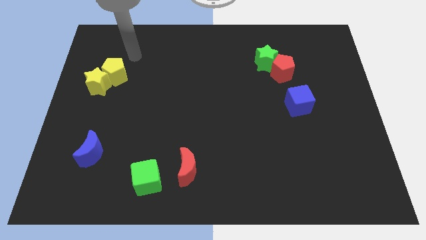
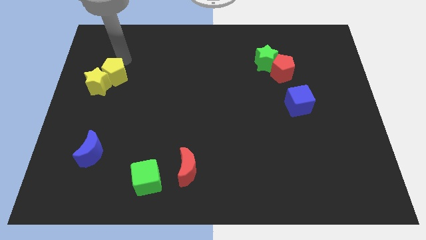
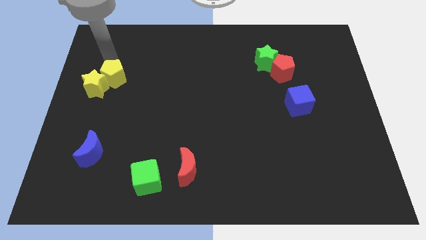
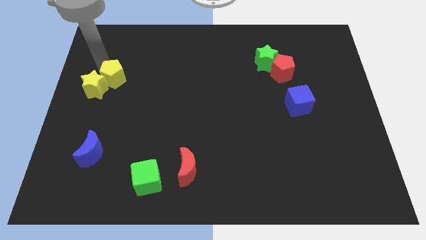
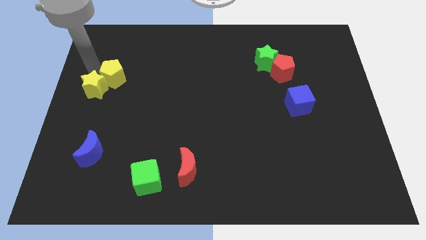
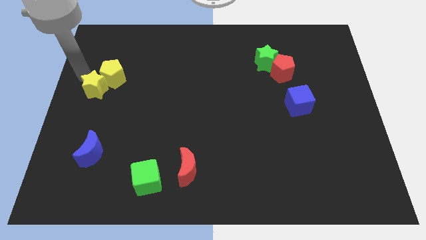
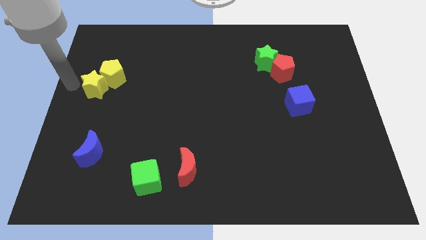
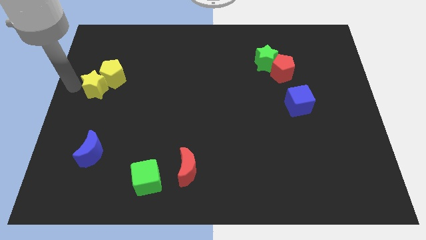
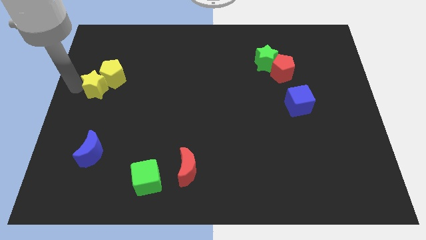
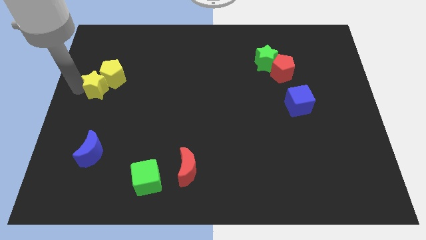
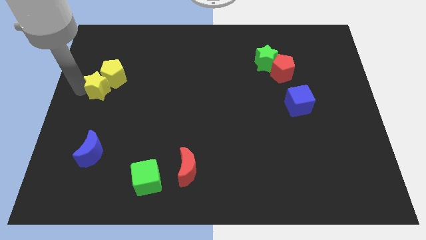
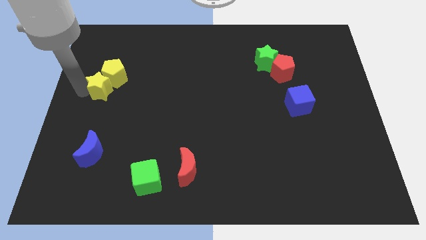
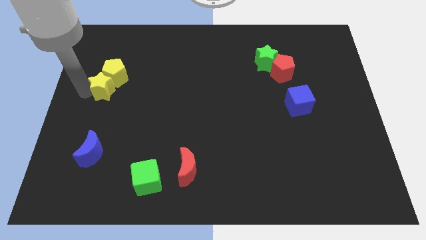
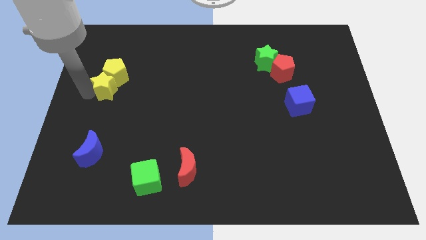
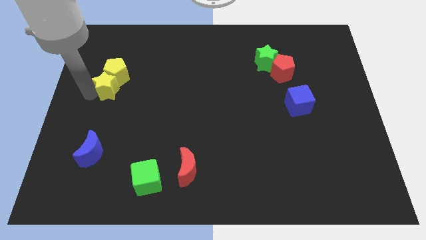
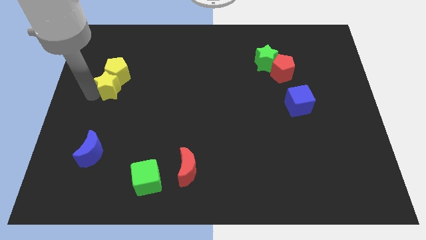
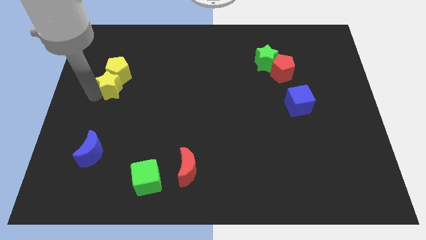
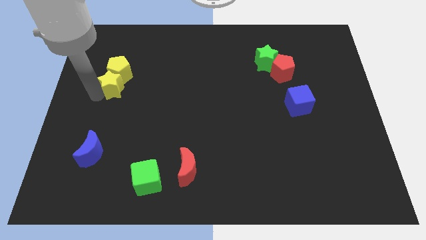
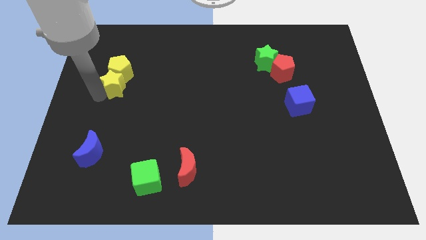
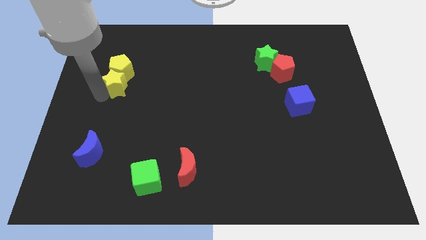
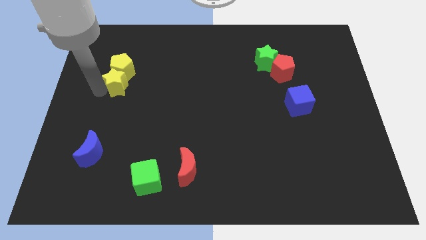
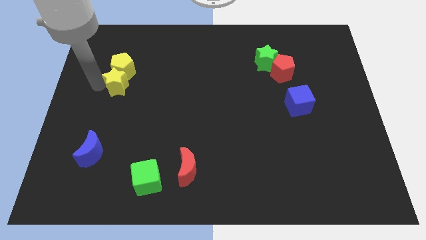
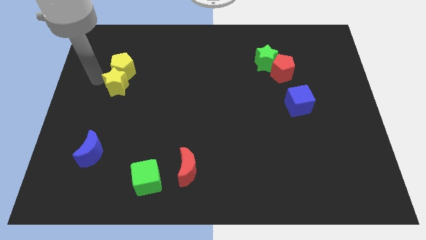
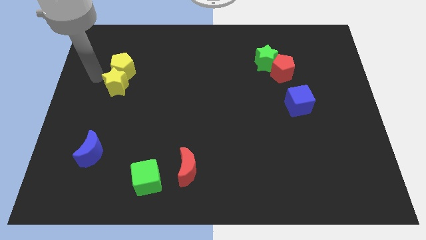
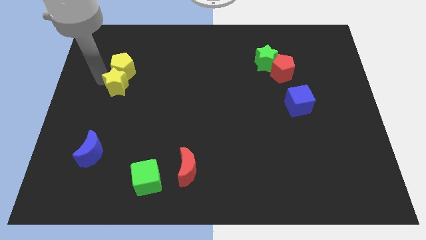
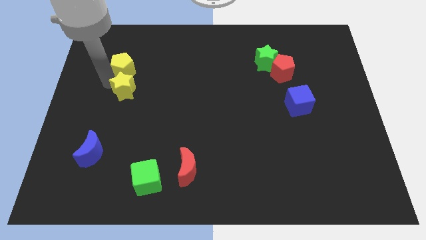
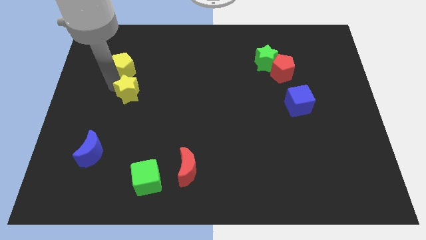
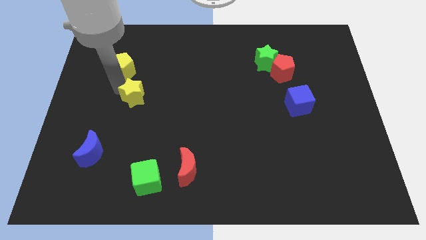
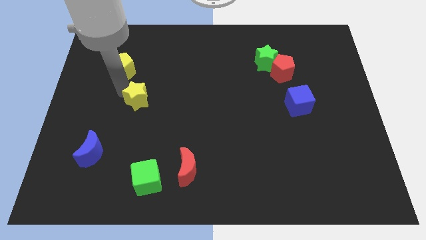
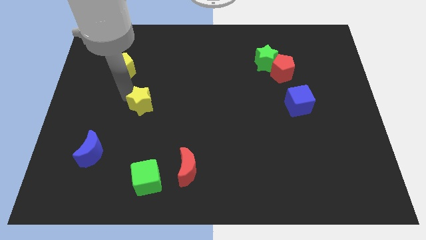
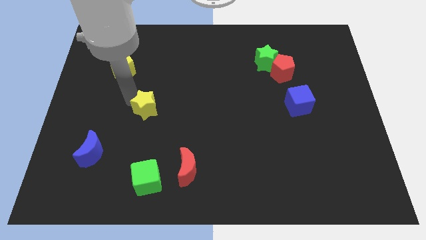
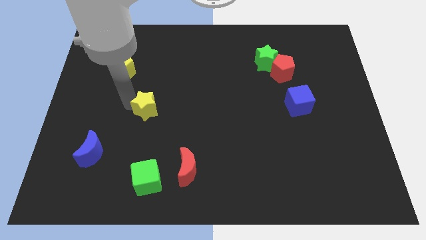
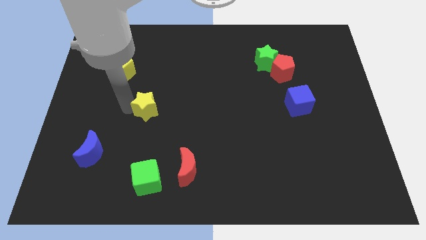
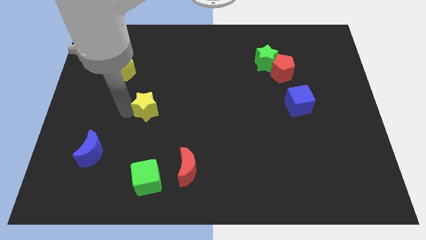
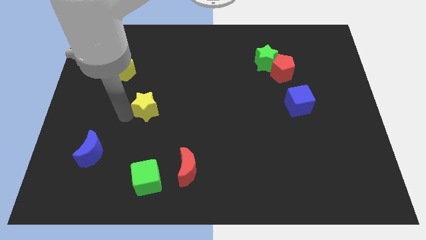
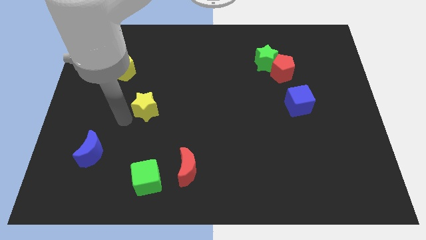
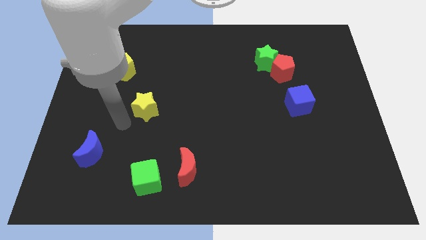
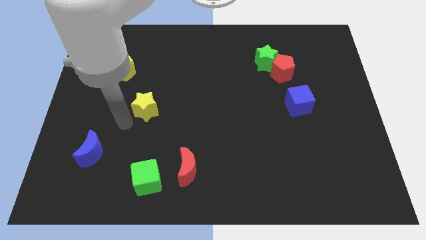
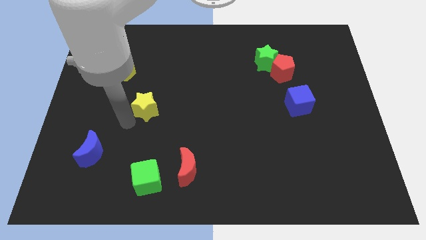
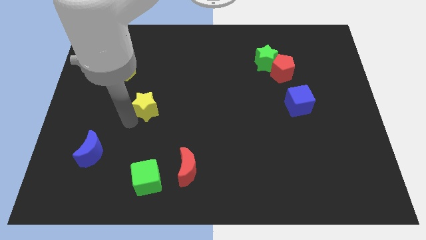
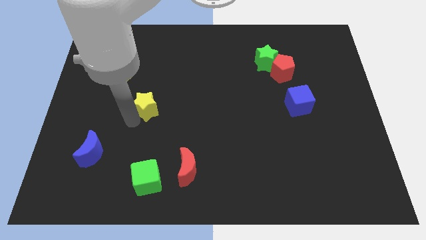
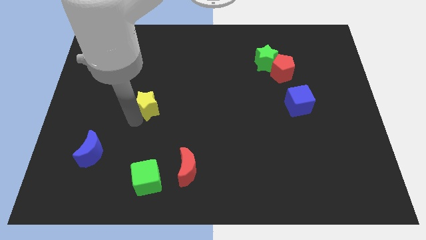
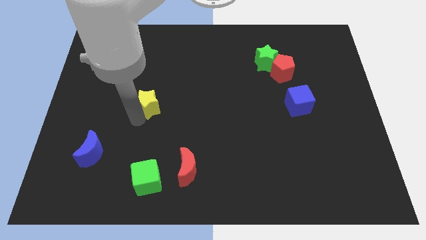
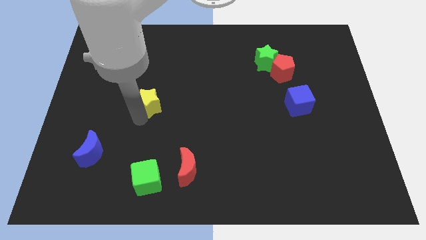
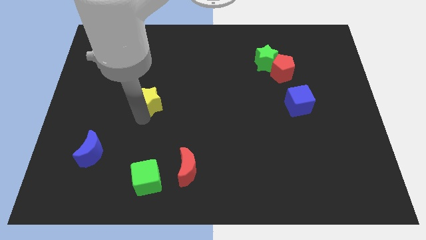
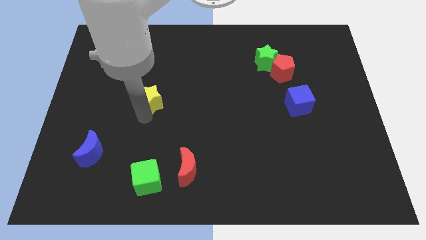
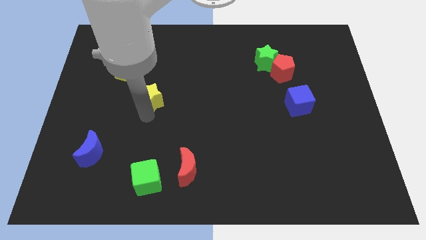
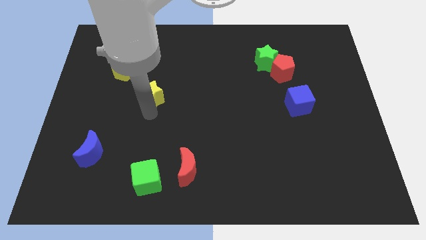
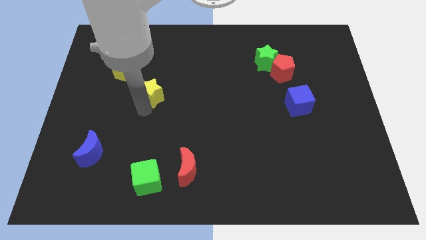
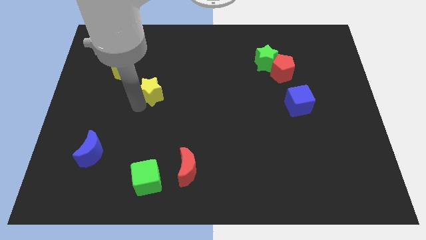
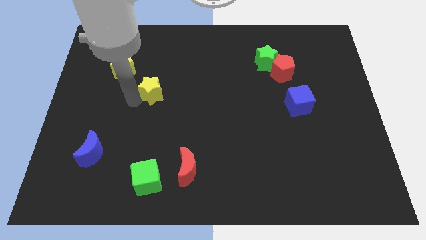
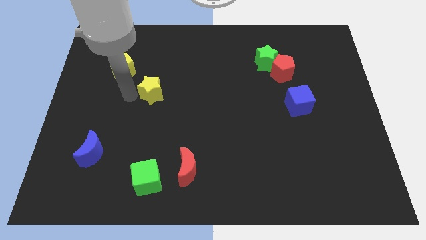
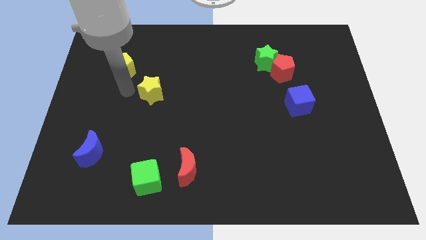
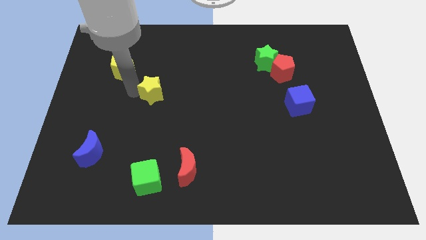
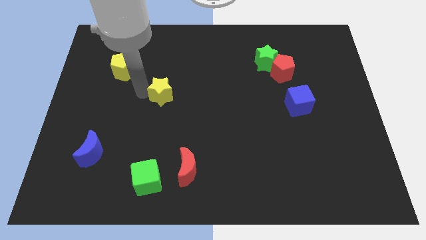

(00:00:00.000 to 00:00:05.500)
move the yellow star to the middle of the board

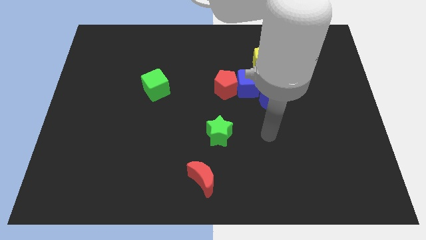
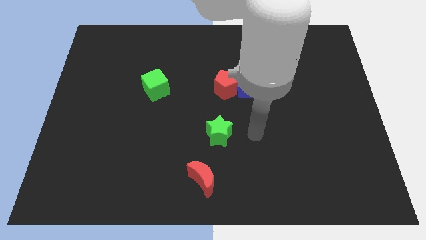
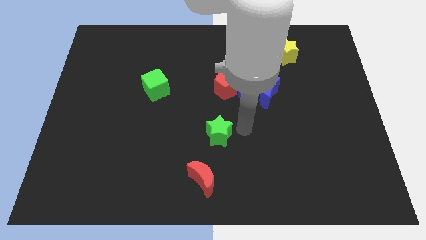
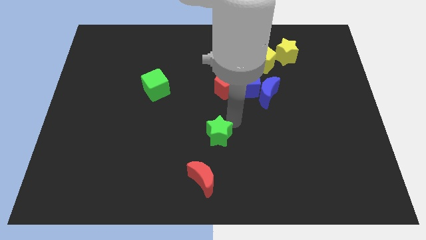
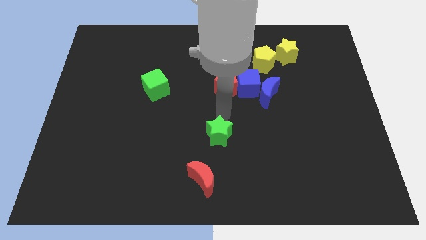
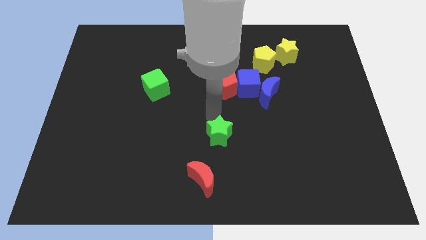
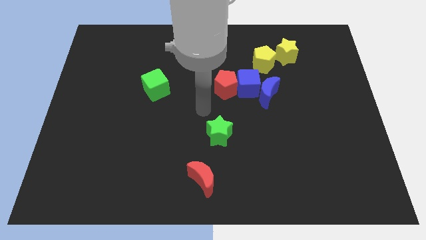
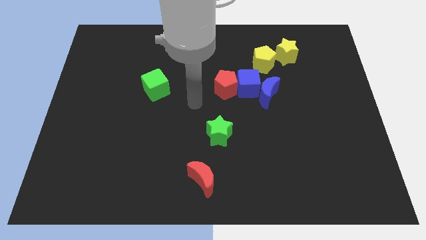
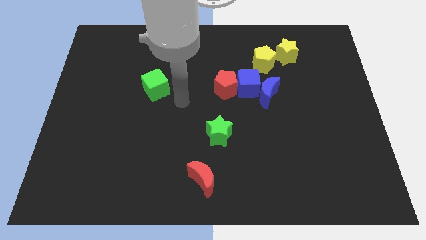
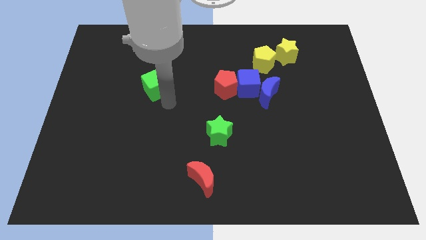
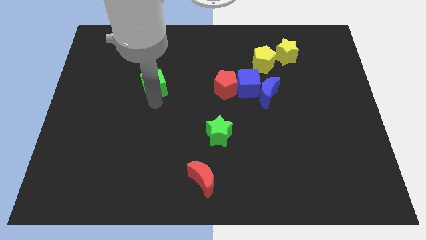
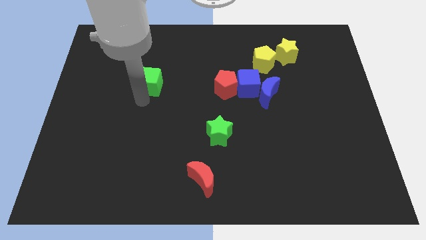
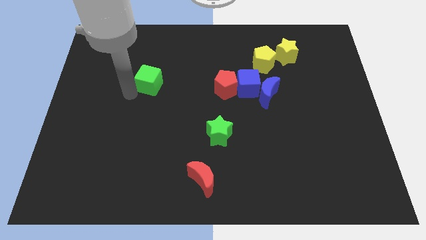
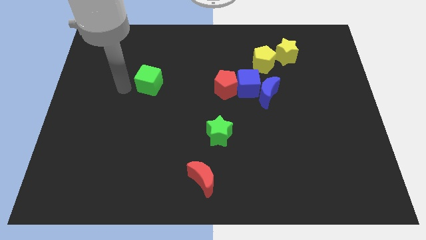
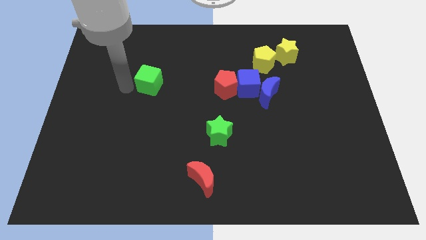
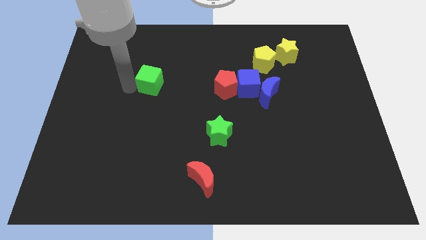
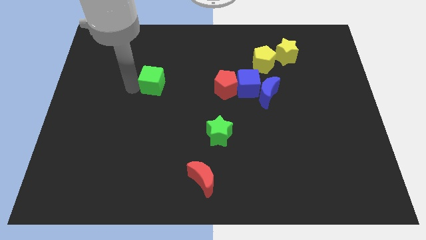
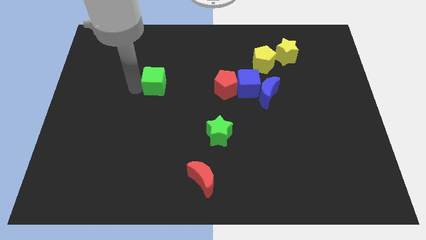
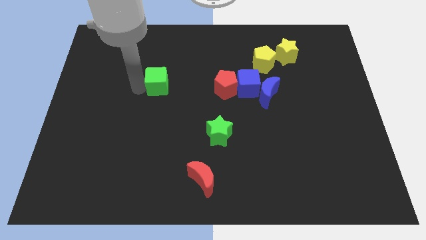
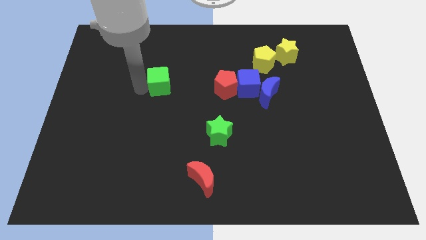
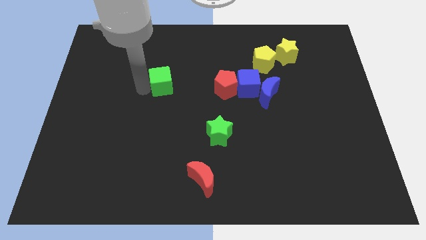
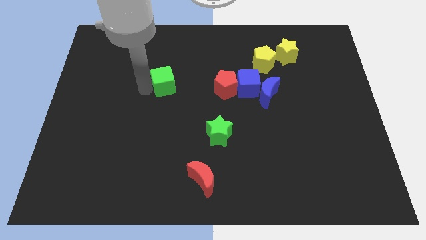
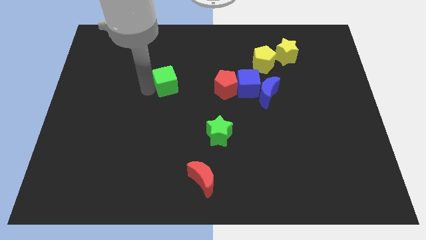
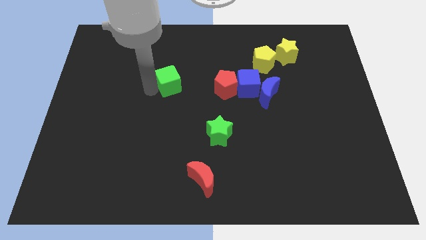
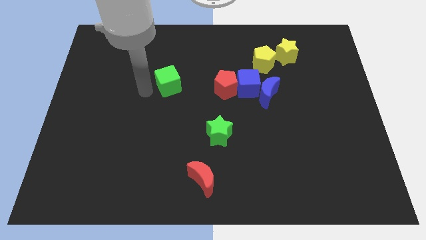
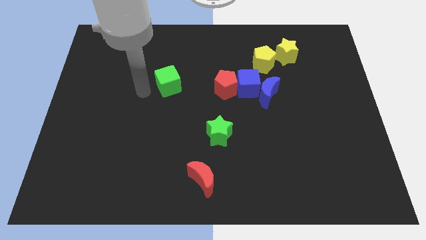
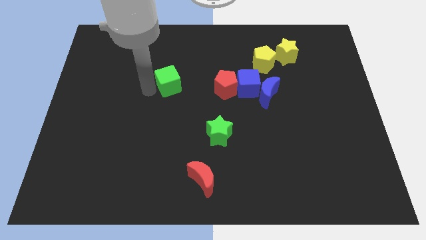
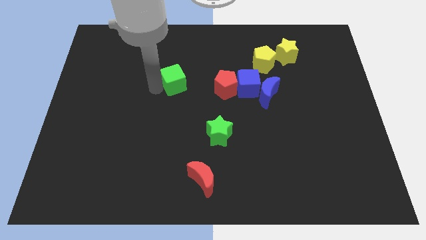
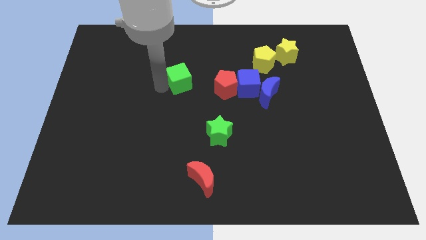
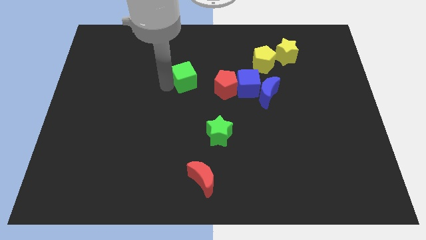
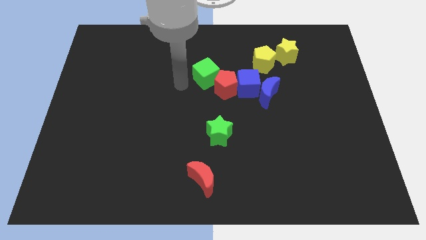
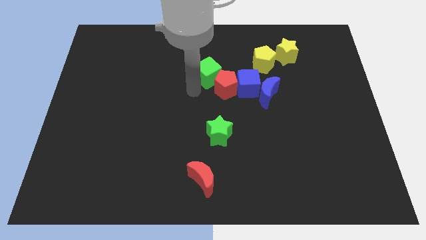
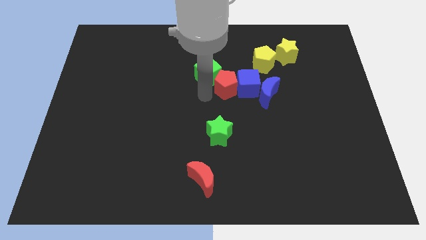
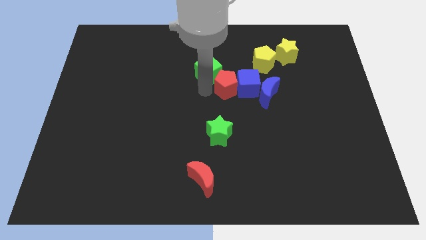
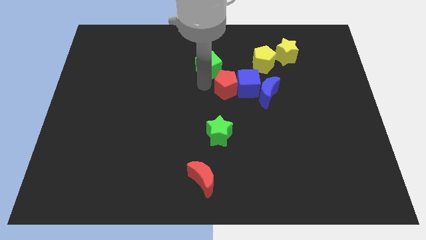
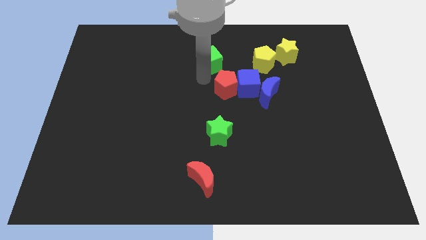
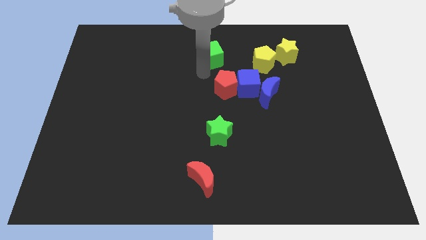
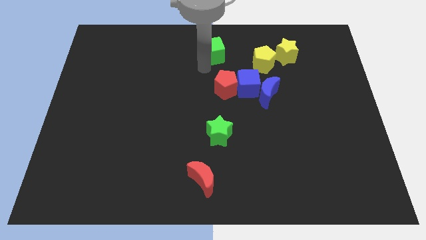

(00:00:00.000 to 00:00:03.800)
push the green cube to the top
